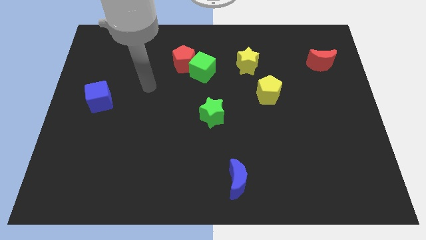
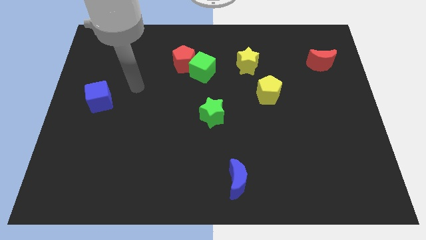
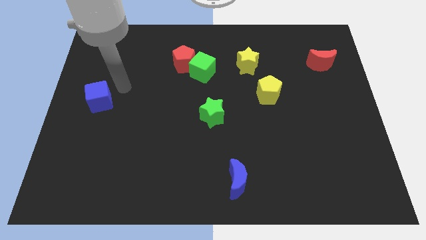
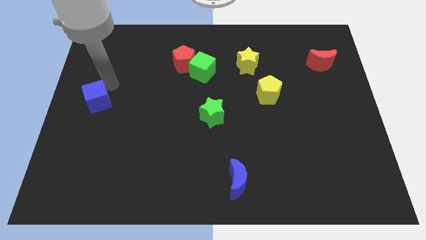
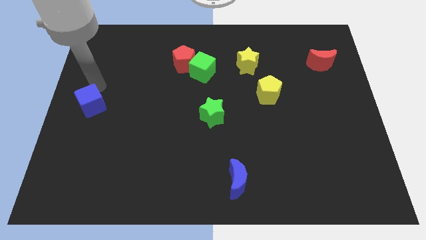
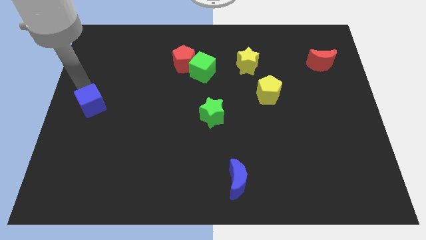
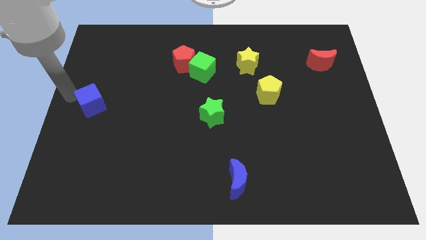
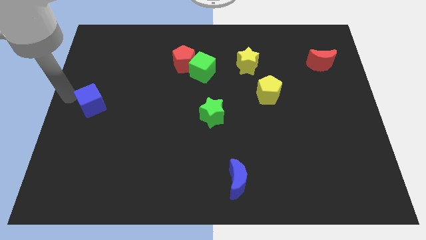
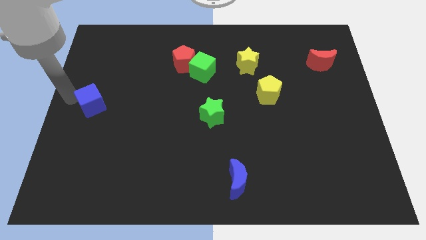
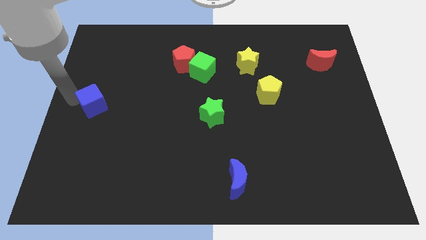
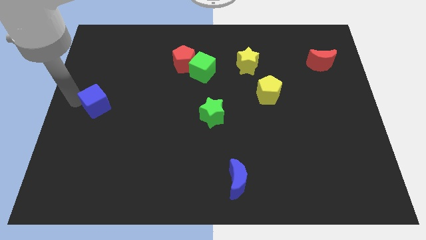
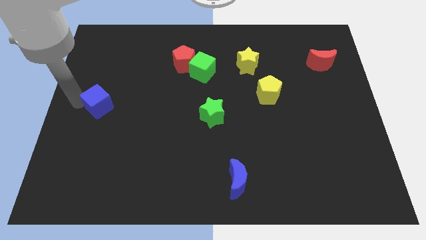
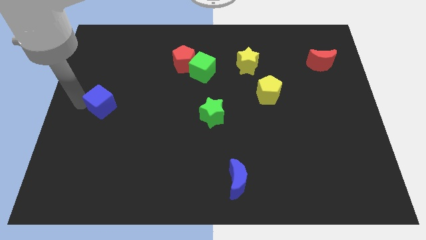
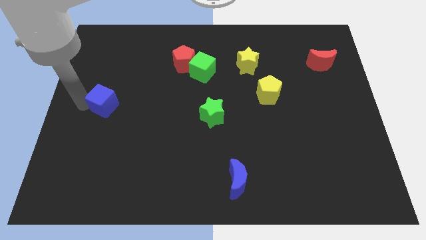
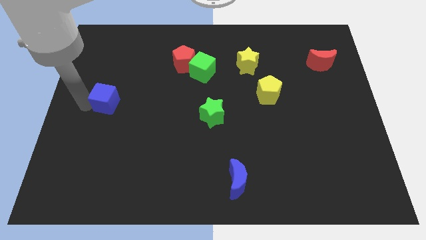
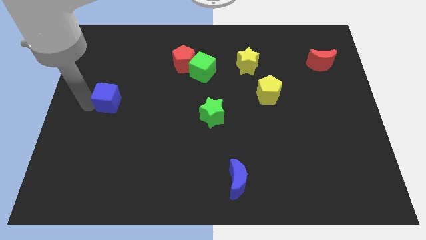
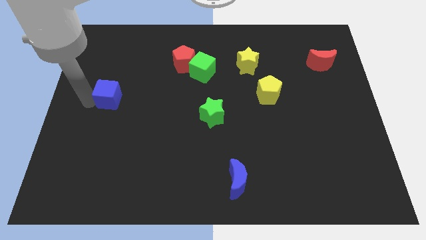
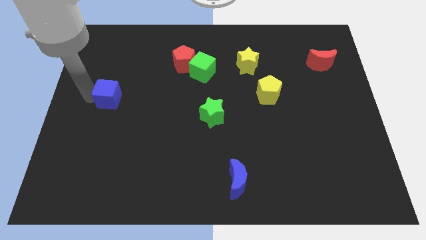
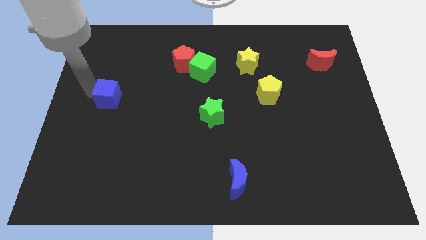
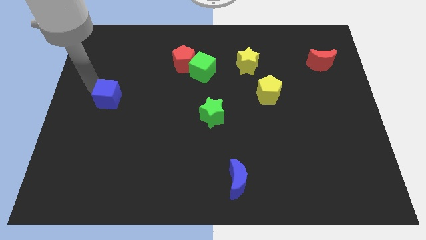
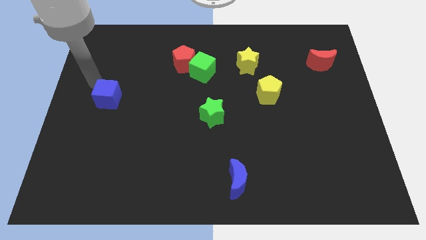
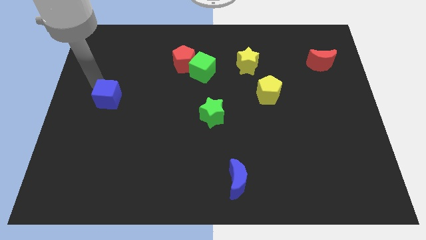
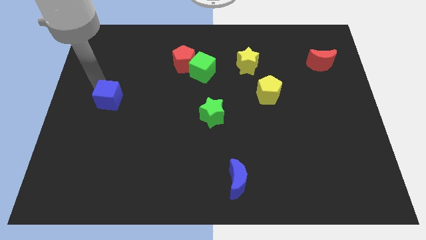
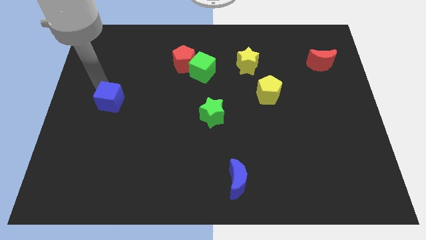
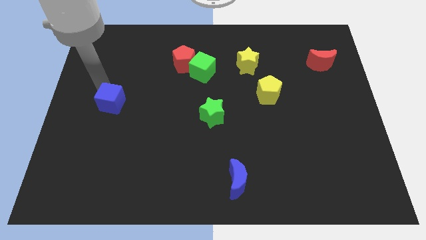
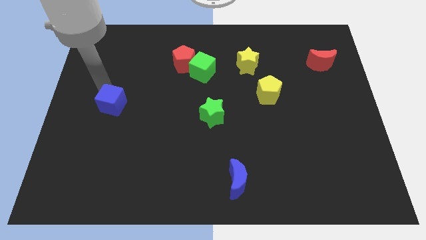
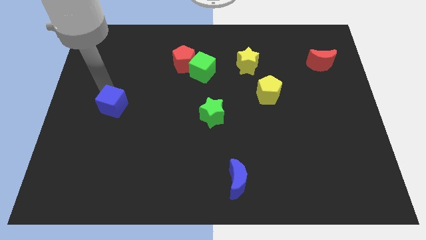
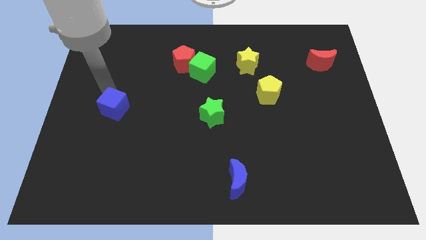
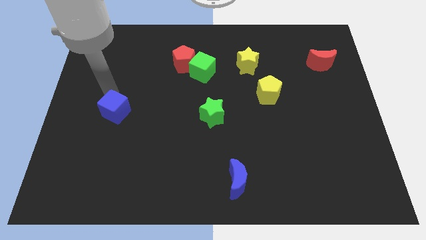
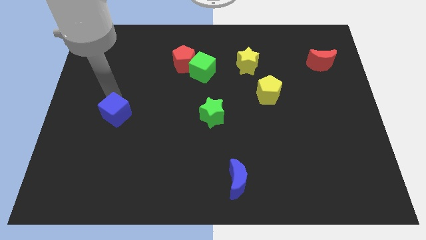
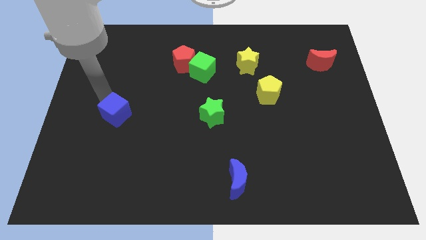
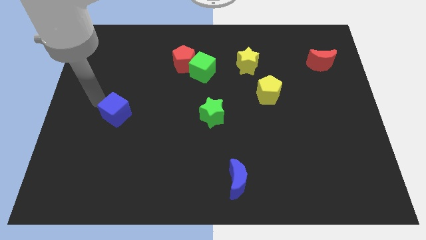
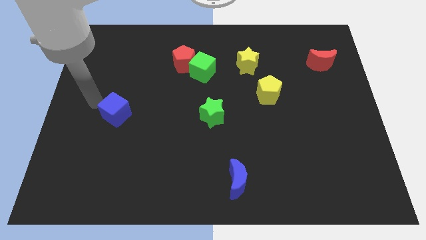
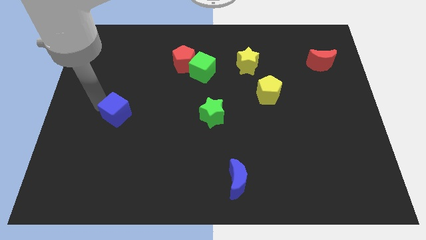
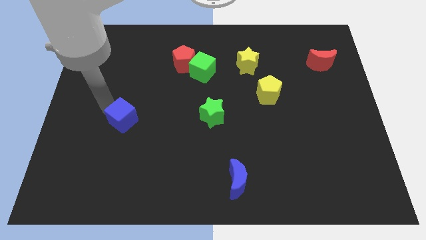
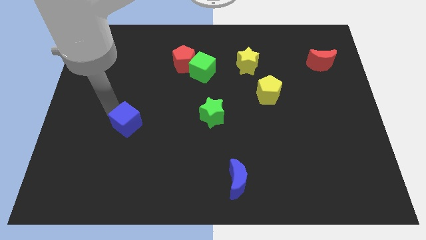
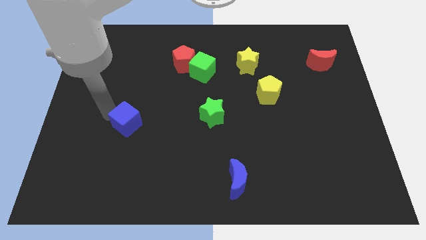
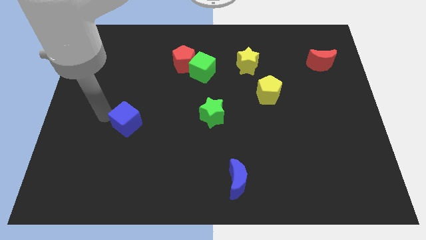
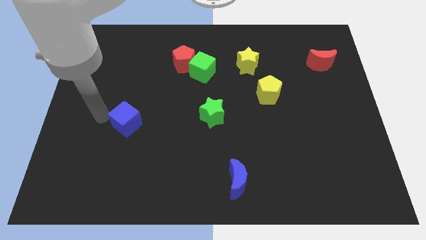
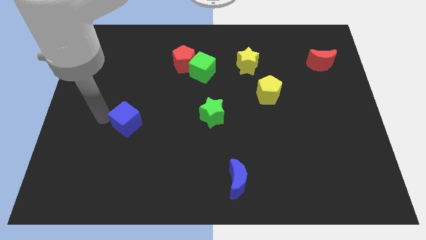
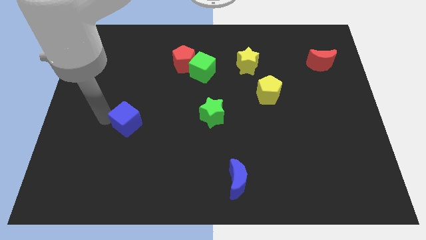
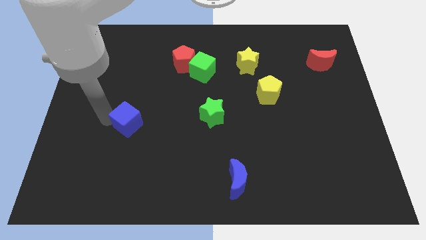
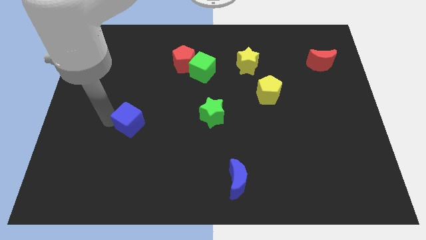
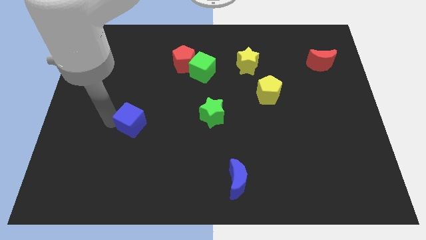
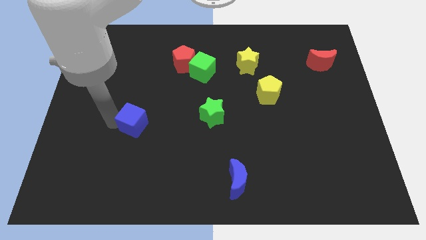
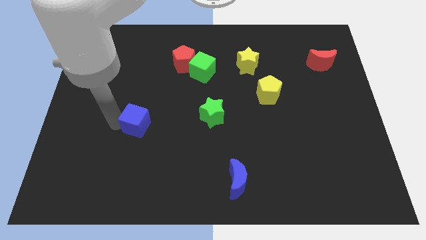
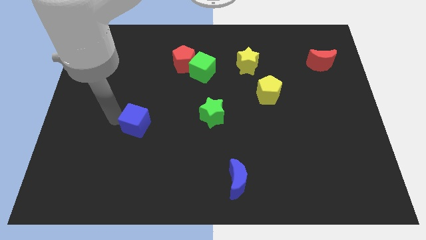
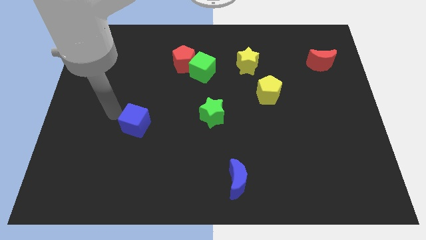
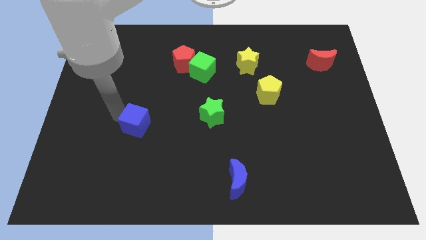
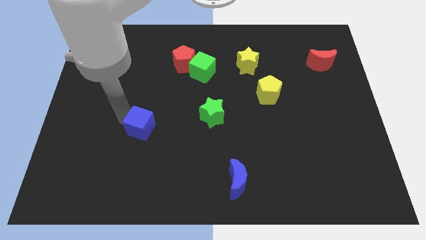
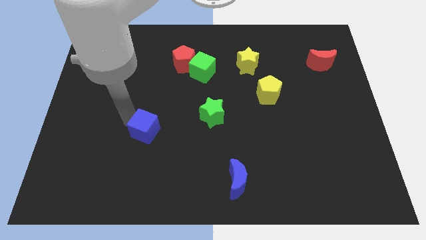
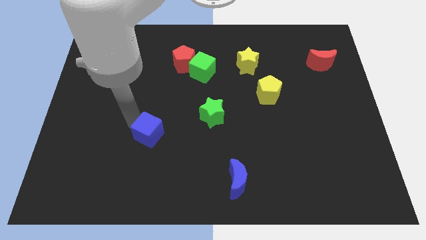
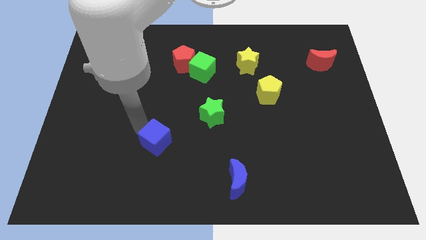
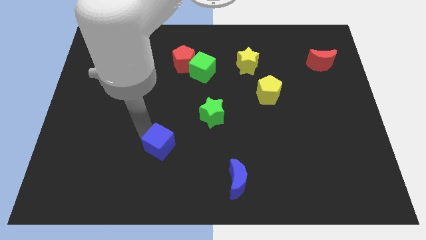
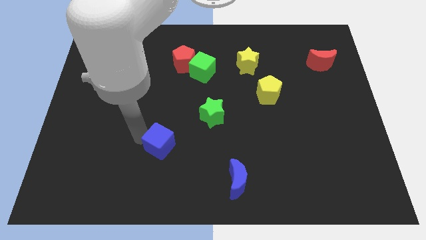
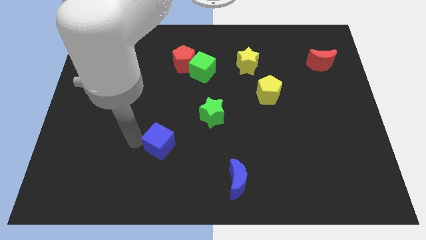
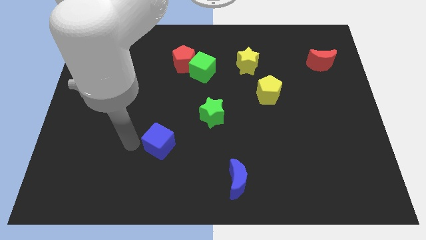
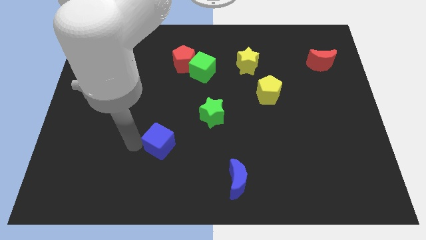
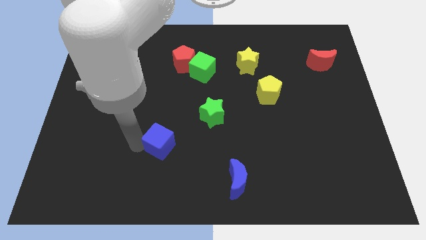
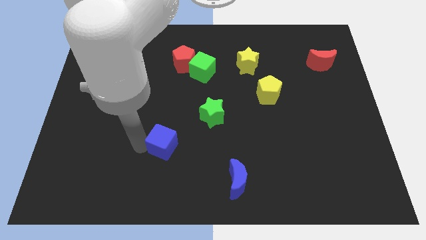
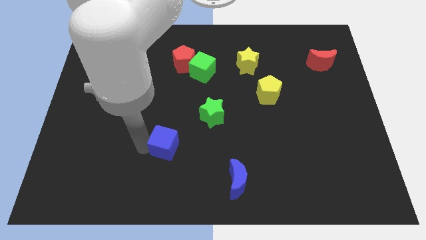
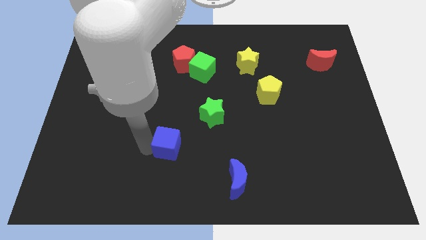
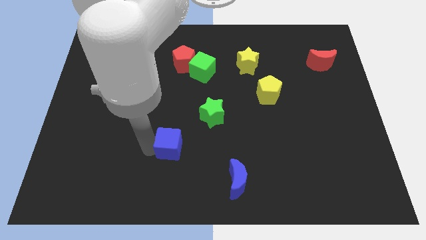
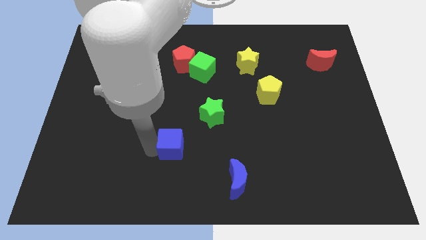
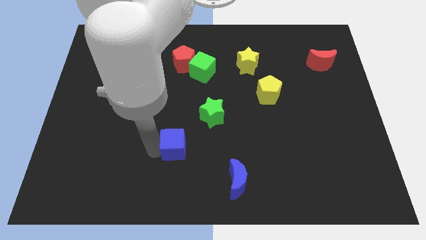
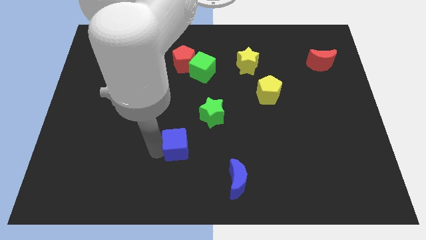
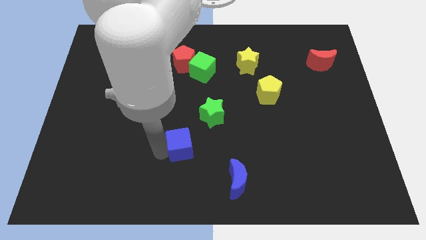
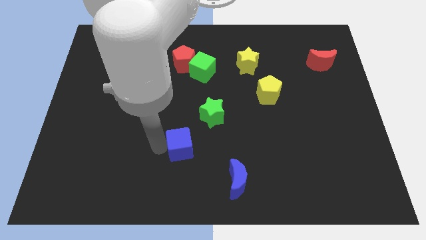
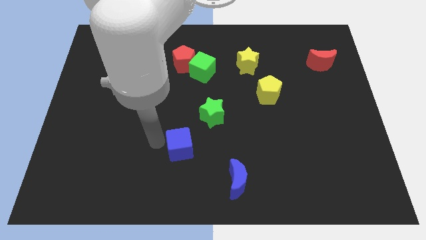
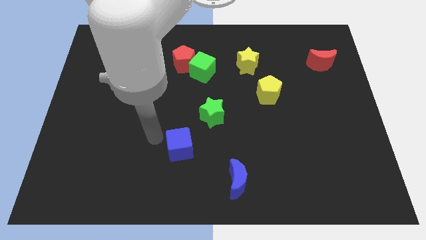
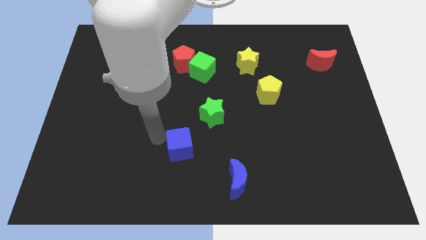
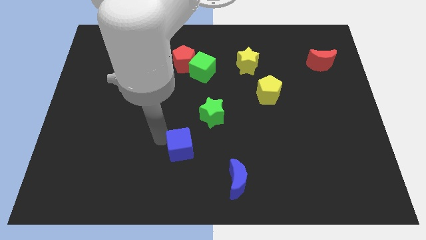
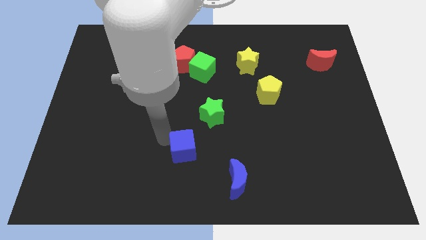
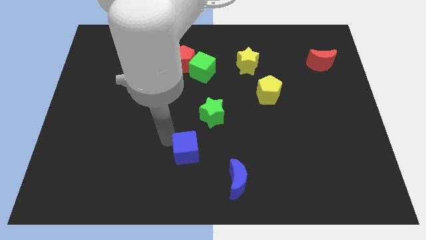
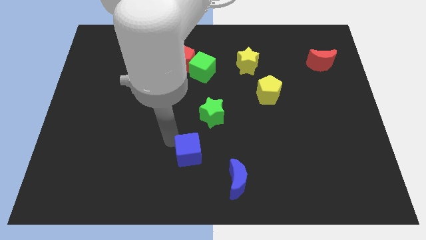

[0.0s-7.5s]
push the blue cube diagonally up and to the left of the blue moon
